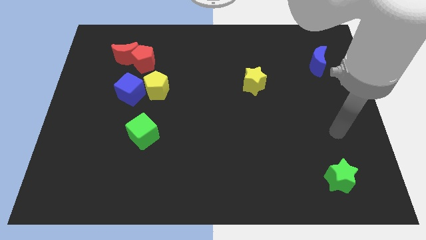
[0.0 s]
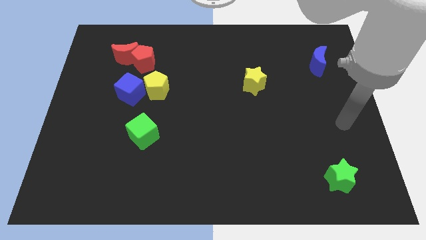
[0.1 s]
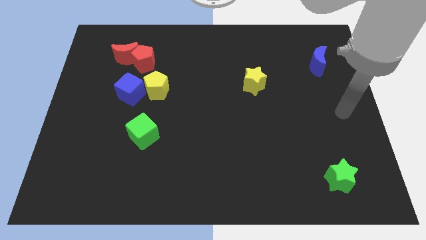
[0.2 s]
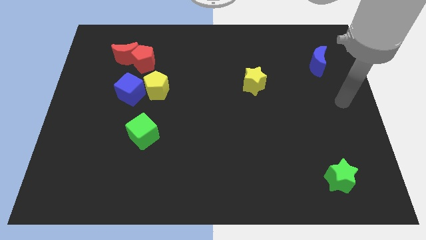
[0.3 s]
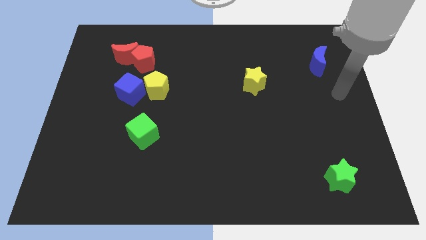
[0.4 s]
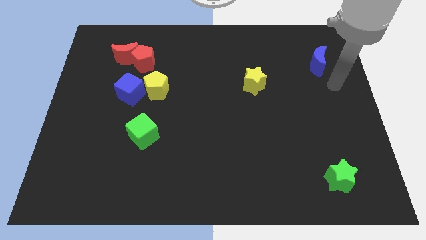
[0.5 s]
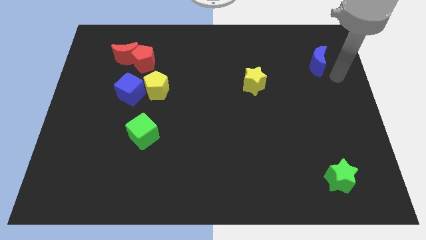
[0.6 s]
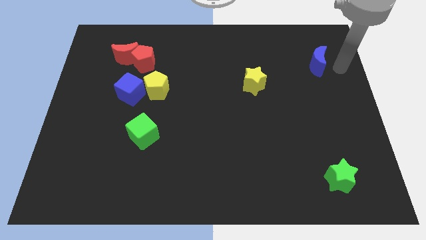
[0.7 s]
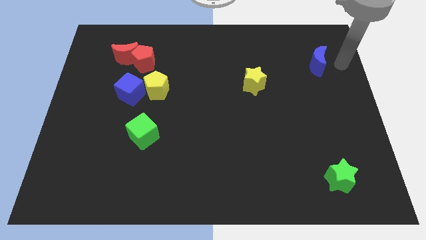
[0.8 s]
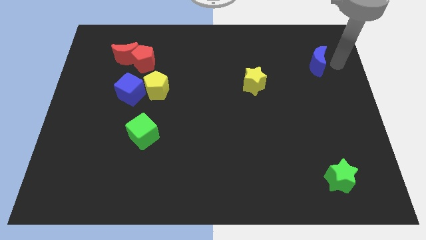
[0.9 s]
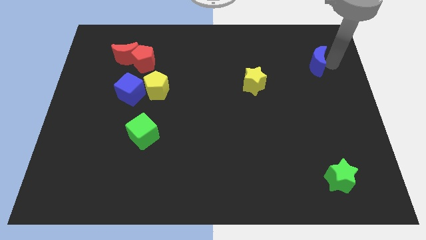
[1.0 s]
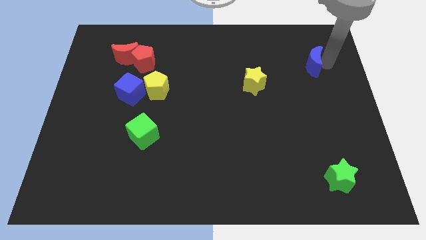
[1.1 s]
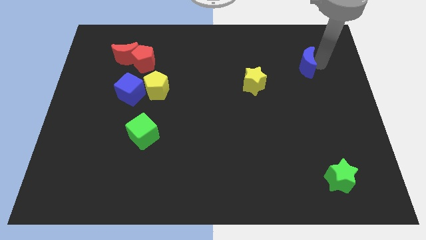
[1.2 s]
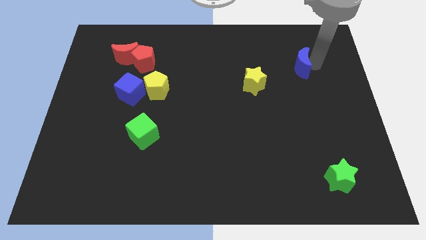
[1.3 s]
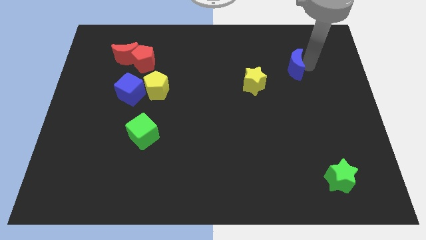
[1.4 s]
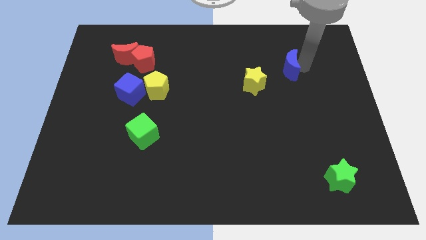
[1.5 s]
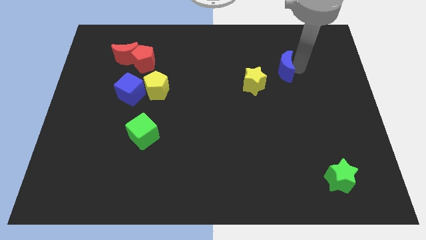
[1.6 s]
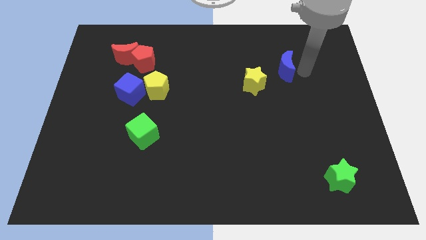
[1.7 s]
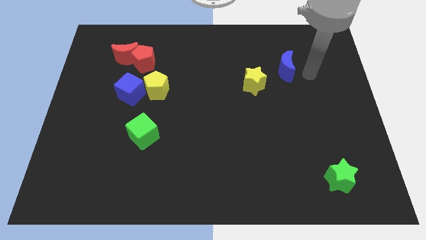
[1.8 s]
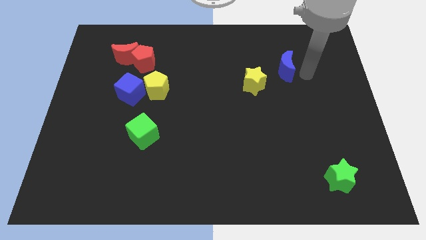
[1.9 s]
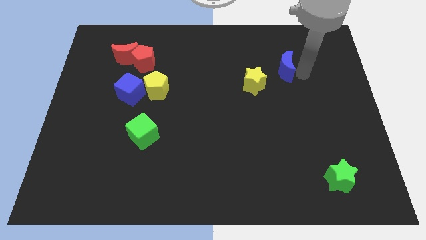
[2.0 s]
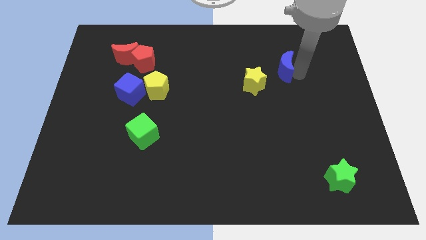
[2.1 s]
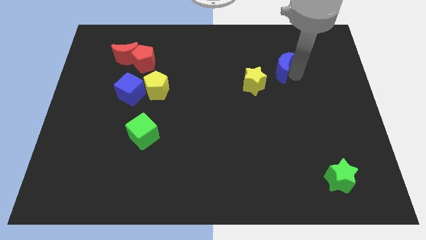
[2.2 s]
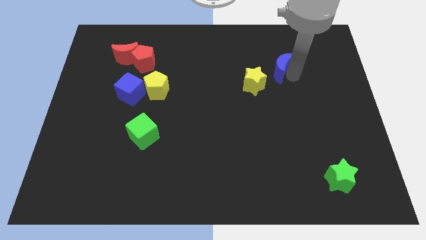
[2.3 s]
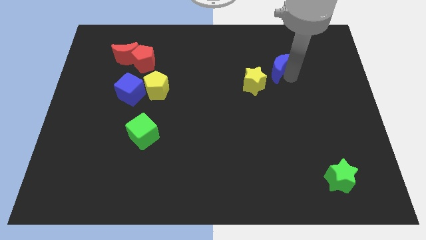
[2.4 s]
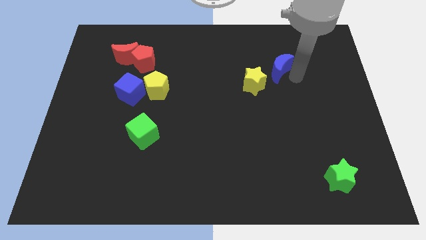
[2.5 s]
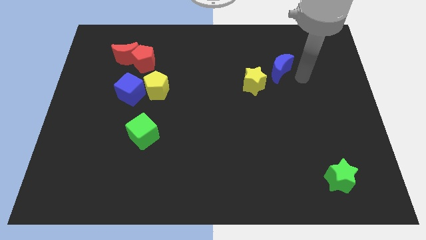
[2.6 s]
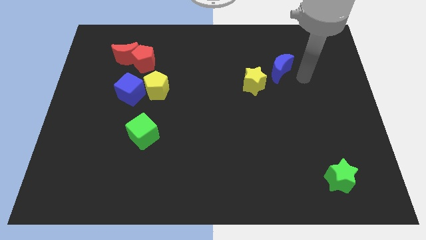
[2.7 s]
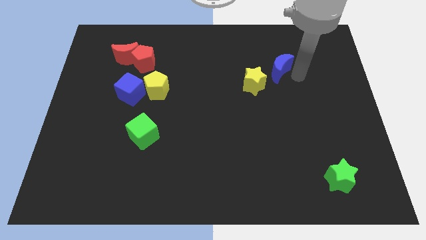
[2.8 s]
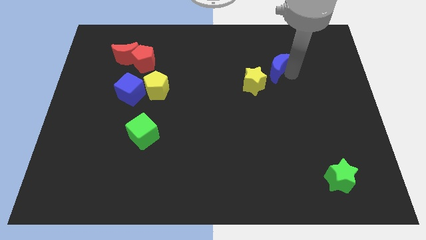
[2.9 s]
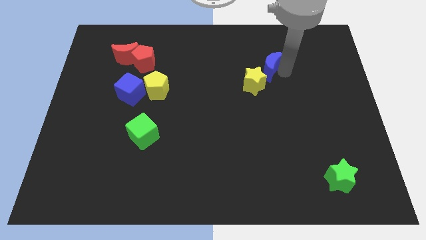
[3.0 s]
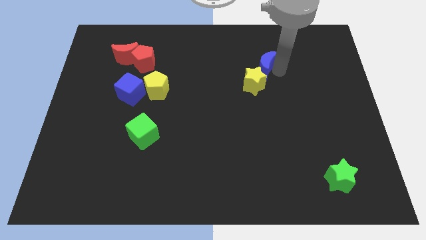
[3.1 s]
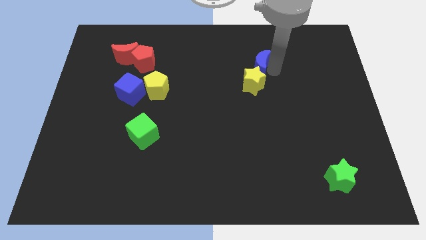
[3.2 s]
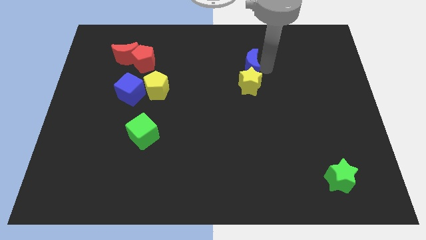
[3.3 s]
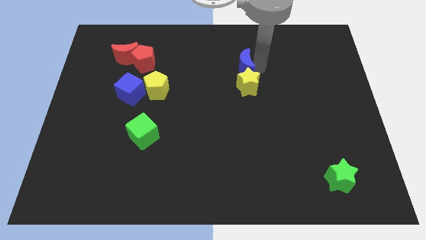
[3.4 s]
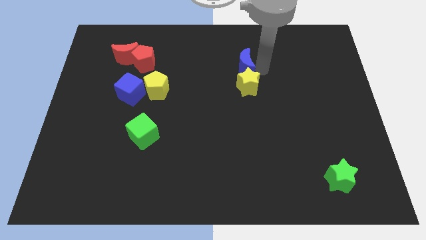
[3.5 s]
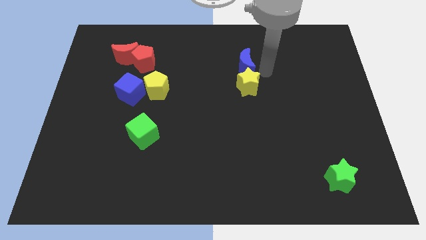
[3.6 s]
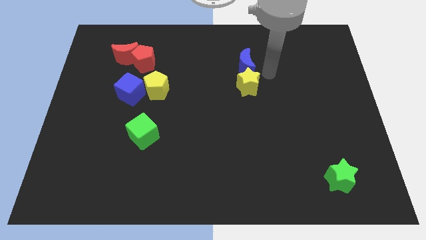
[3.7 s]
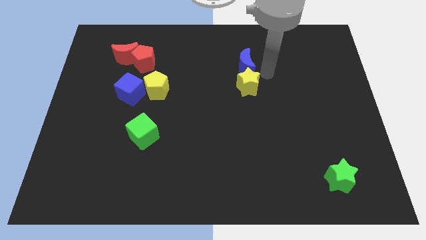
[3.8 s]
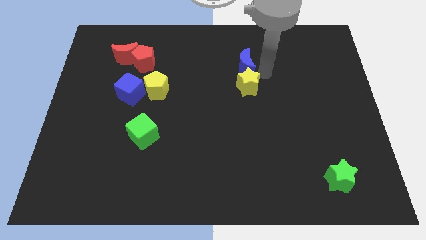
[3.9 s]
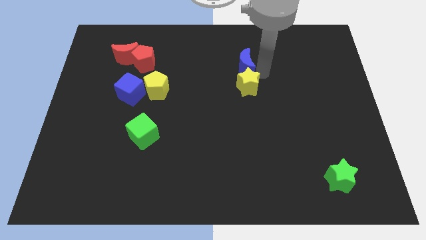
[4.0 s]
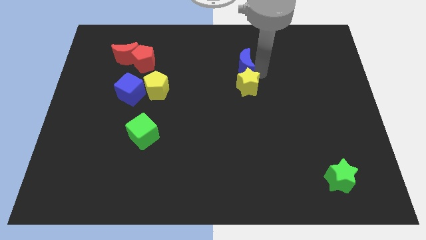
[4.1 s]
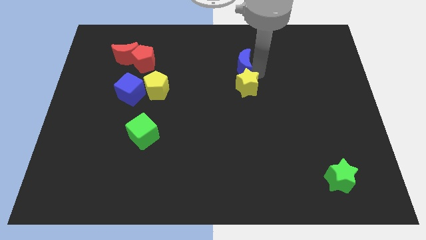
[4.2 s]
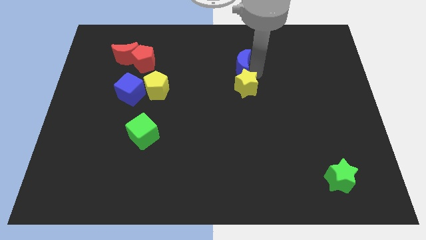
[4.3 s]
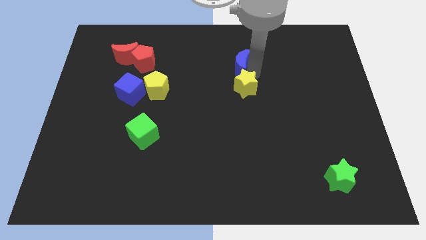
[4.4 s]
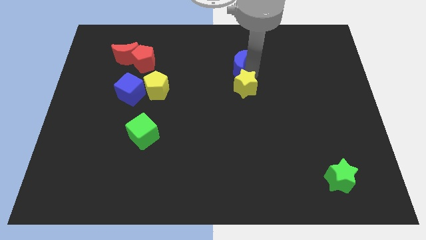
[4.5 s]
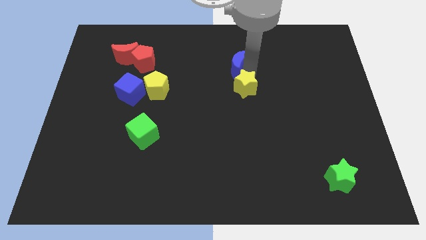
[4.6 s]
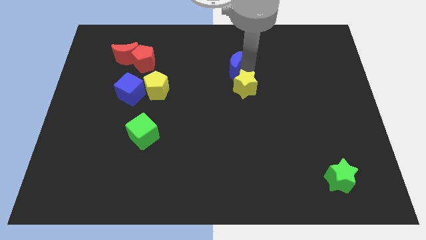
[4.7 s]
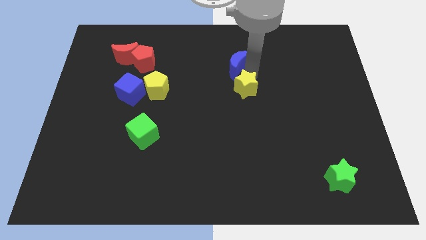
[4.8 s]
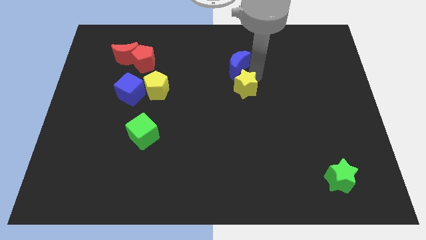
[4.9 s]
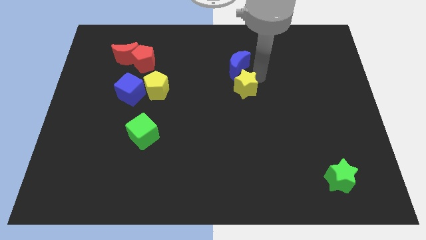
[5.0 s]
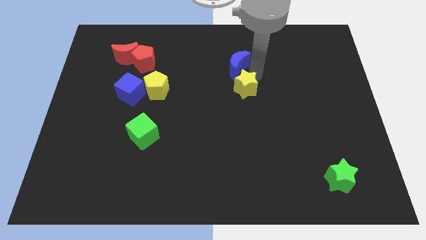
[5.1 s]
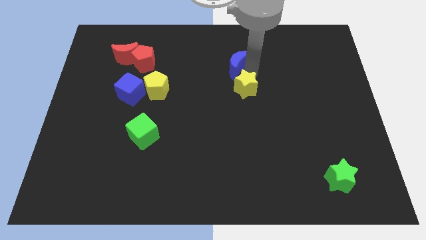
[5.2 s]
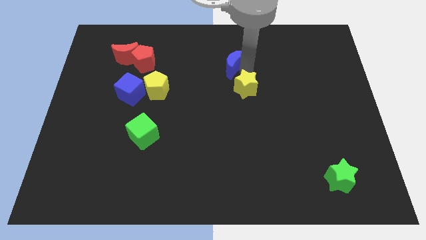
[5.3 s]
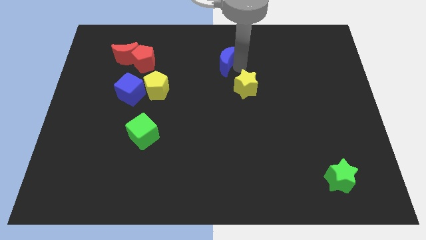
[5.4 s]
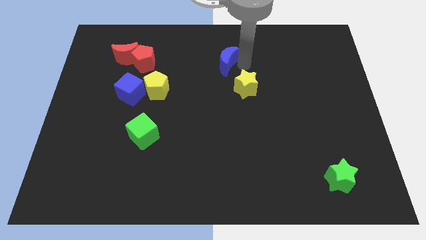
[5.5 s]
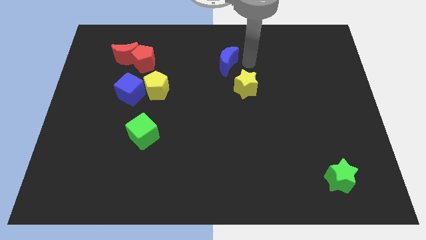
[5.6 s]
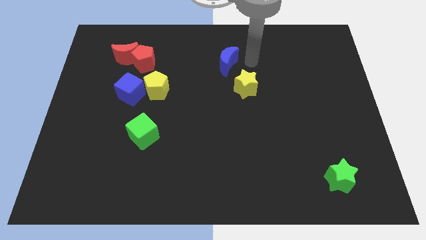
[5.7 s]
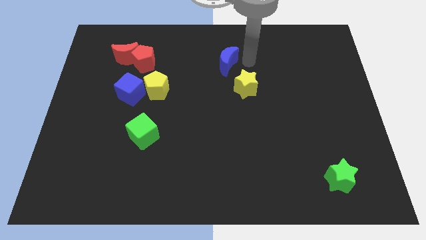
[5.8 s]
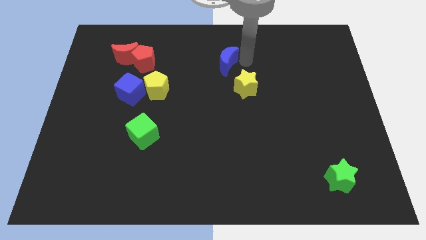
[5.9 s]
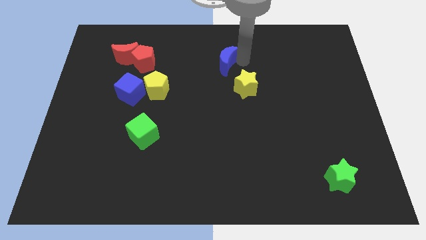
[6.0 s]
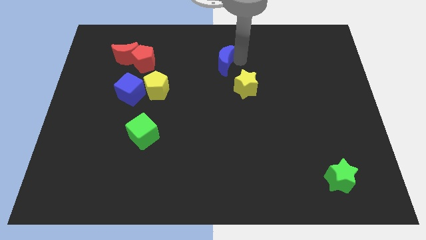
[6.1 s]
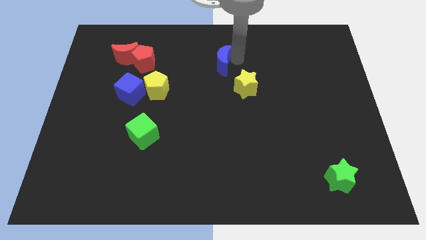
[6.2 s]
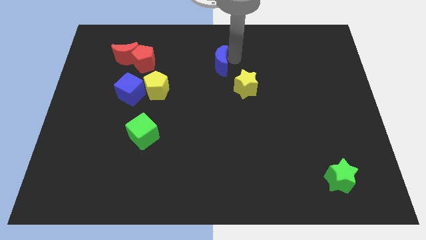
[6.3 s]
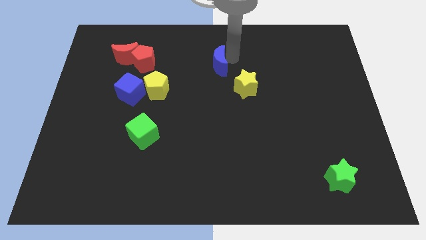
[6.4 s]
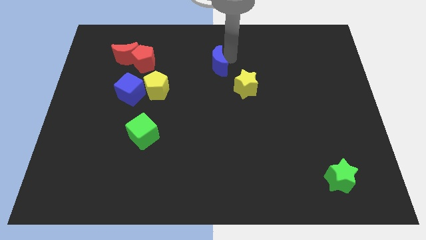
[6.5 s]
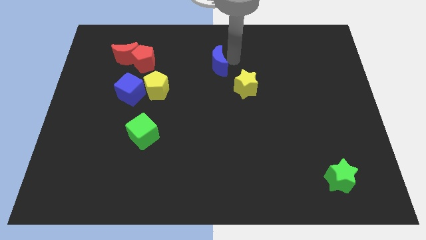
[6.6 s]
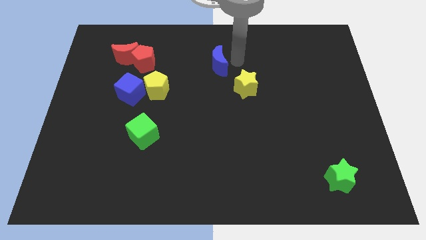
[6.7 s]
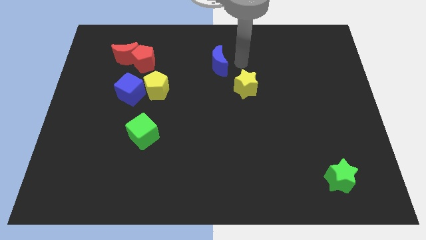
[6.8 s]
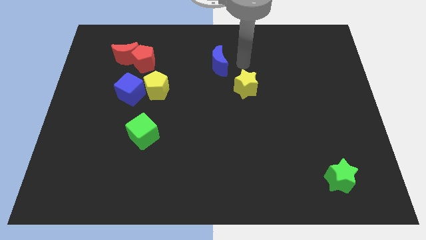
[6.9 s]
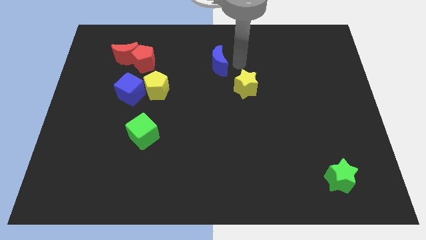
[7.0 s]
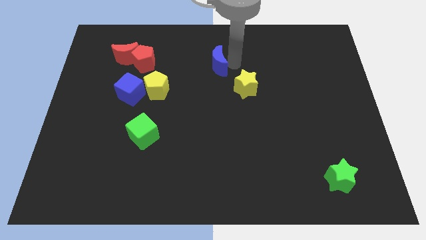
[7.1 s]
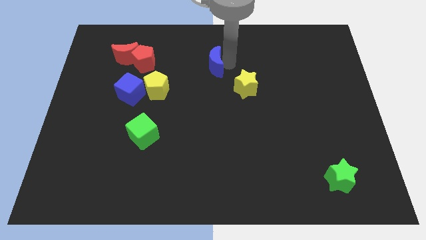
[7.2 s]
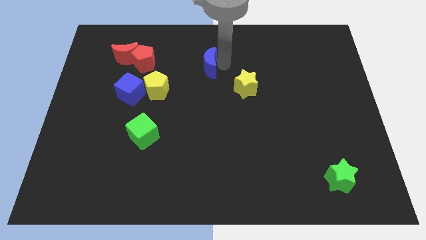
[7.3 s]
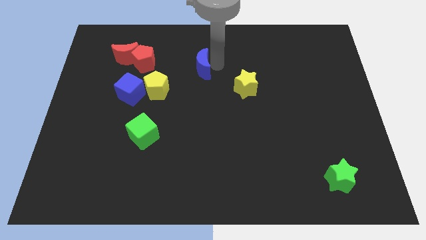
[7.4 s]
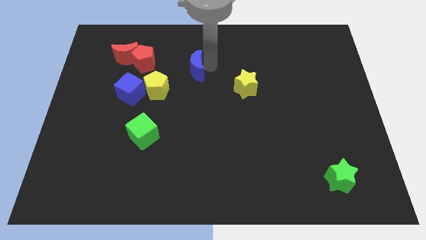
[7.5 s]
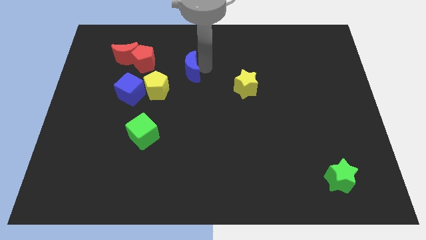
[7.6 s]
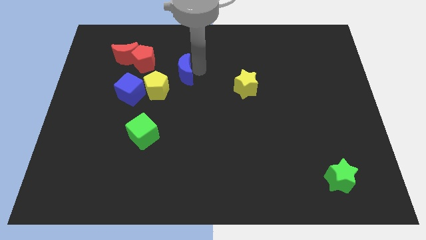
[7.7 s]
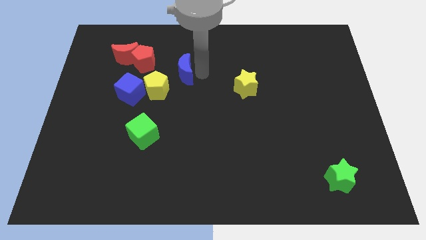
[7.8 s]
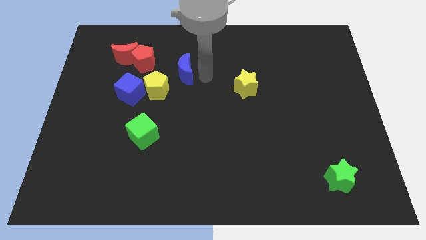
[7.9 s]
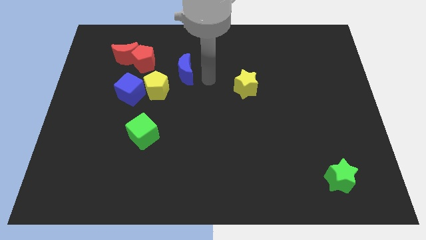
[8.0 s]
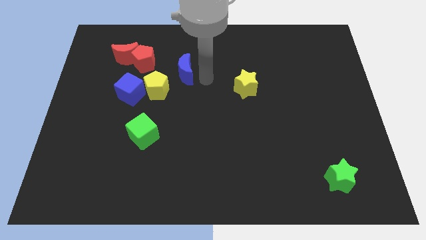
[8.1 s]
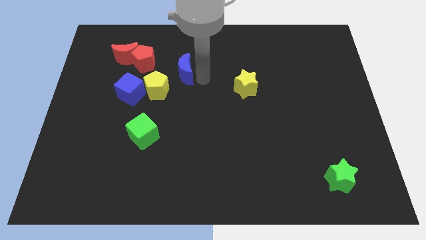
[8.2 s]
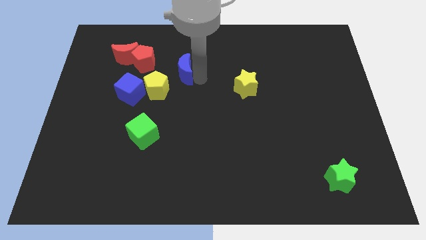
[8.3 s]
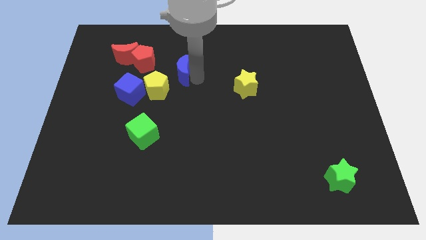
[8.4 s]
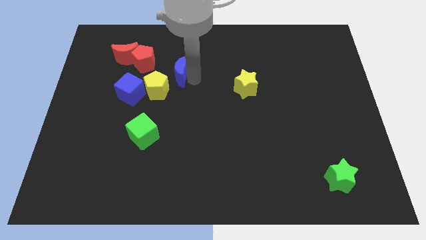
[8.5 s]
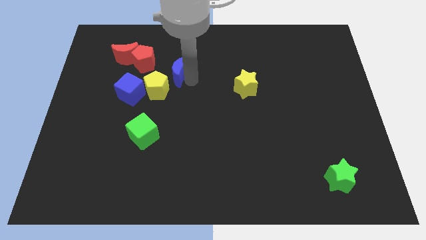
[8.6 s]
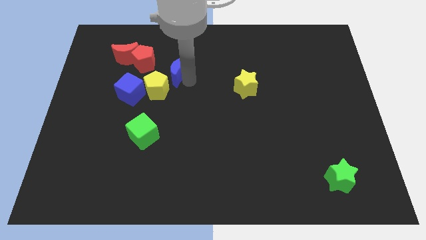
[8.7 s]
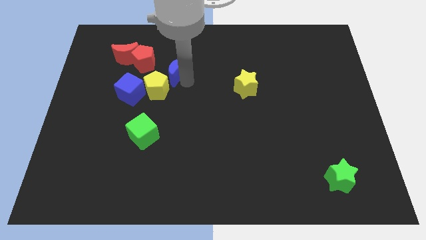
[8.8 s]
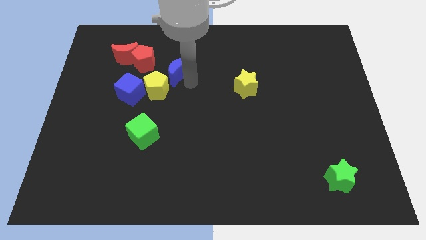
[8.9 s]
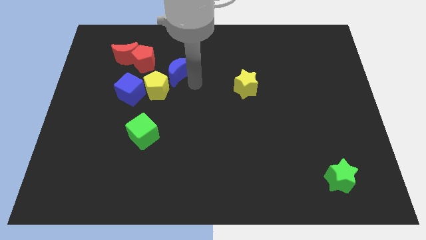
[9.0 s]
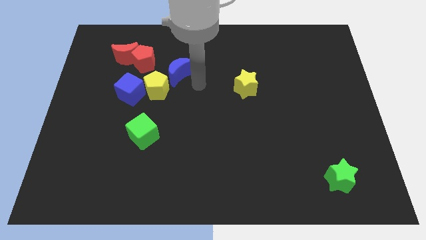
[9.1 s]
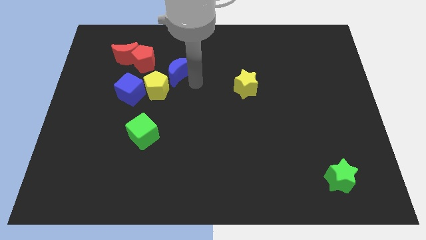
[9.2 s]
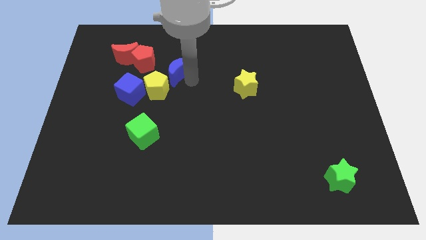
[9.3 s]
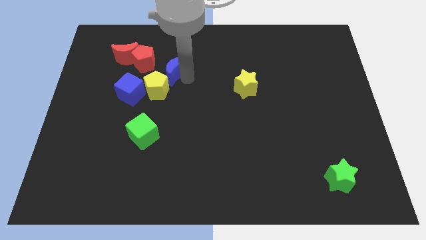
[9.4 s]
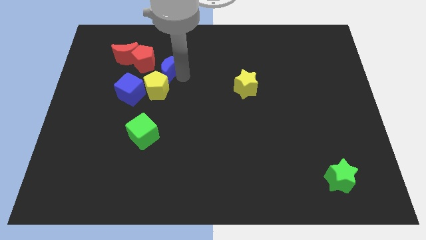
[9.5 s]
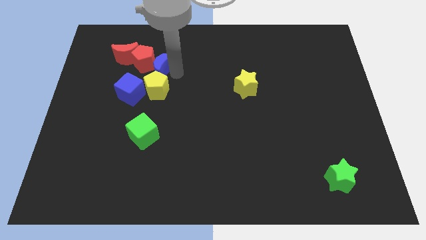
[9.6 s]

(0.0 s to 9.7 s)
move the blue moon close to the red pentagon
